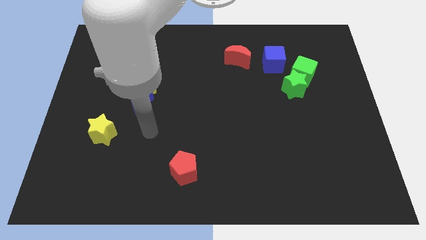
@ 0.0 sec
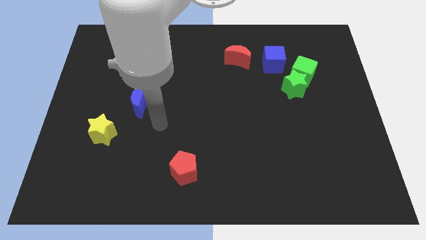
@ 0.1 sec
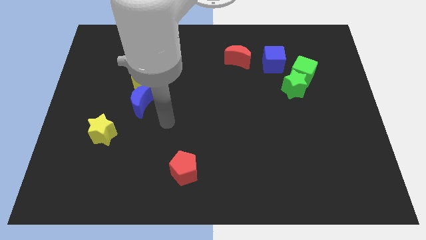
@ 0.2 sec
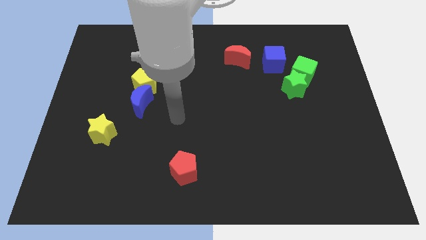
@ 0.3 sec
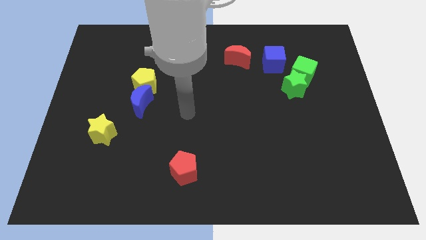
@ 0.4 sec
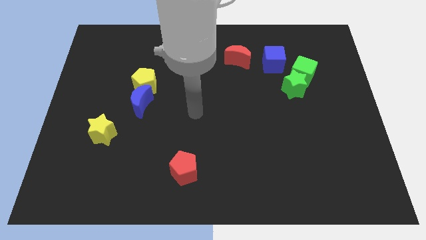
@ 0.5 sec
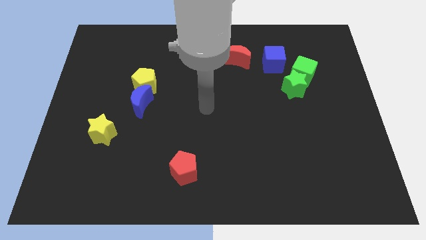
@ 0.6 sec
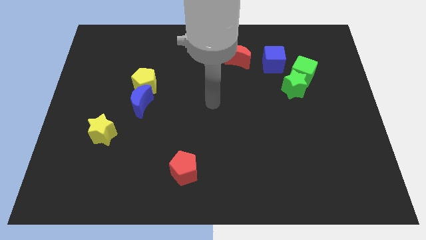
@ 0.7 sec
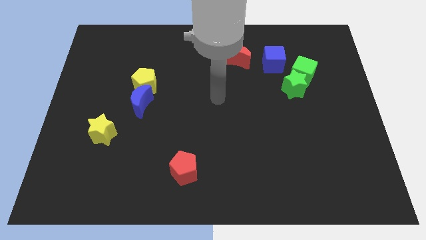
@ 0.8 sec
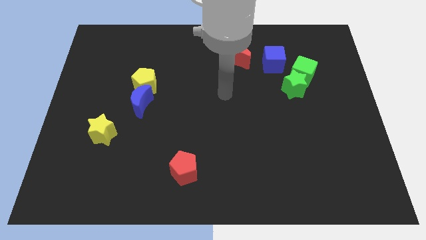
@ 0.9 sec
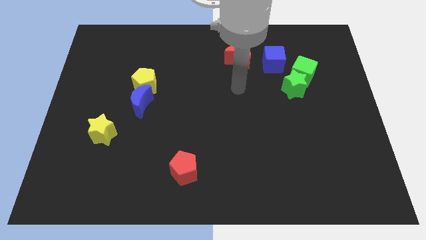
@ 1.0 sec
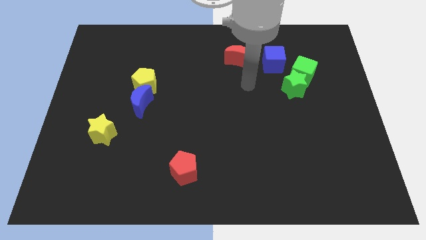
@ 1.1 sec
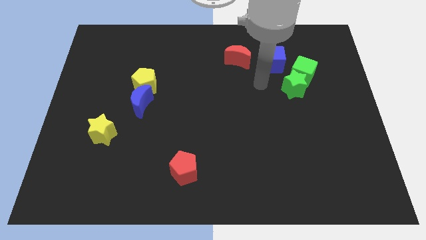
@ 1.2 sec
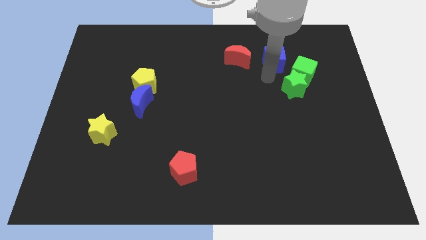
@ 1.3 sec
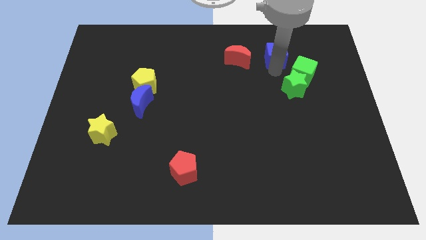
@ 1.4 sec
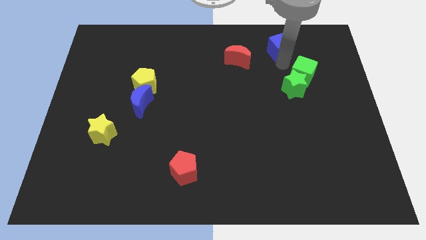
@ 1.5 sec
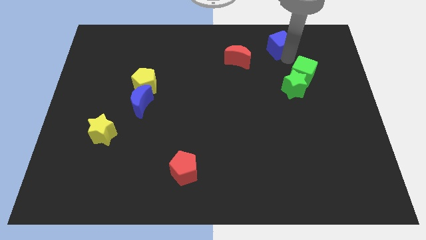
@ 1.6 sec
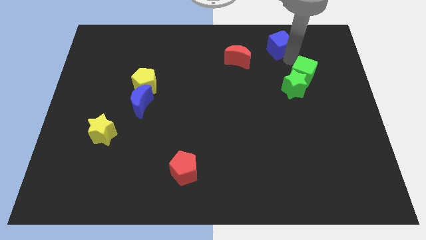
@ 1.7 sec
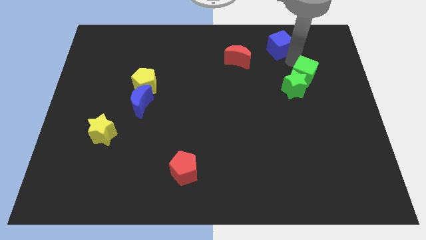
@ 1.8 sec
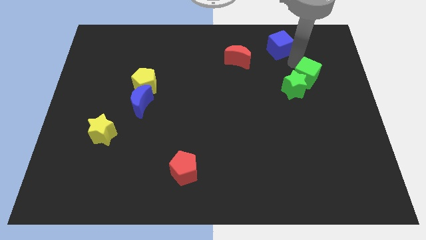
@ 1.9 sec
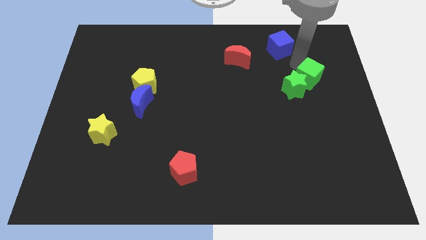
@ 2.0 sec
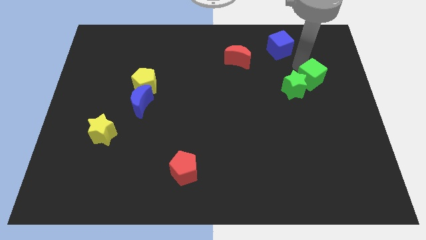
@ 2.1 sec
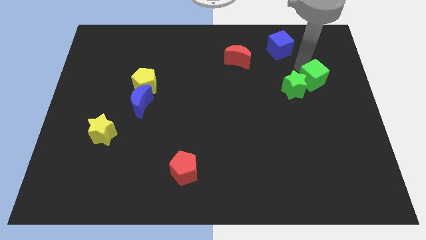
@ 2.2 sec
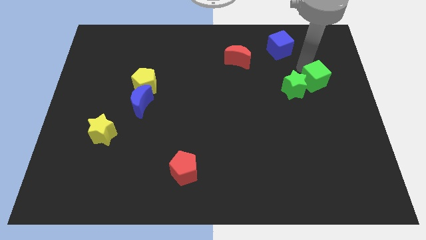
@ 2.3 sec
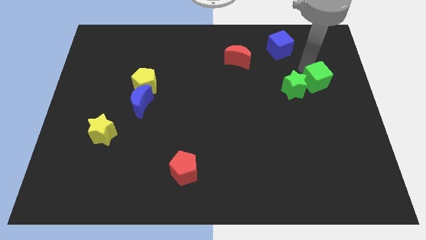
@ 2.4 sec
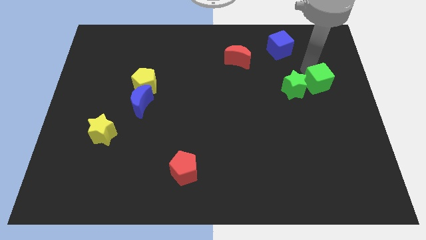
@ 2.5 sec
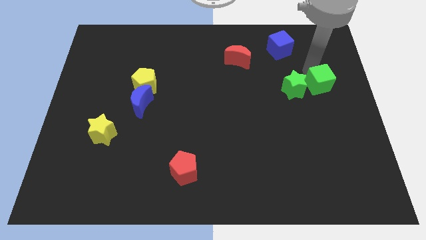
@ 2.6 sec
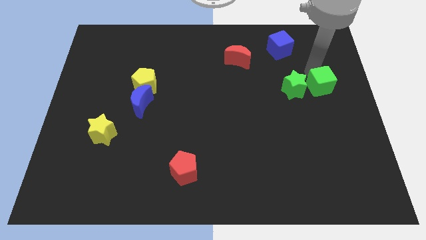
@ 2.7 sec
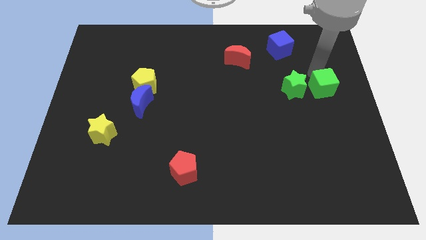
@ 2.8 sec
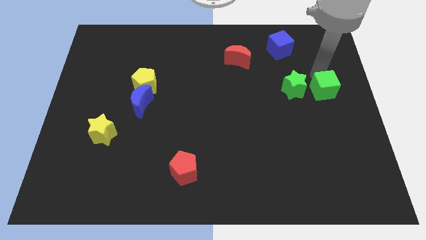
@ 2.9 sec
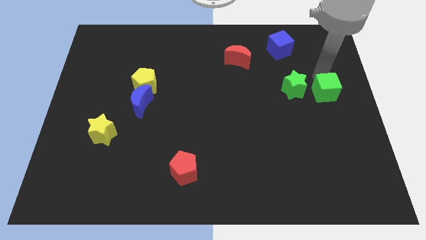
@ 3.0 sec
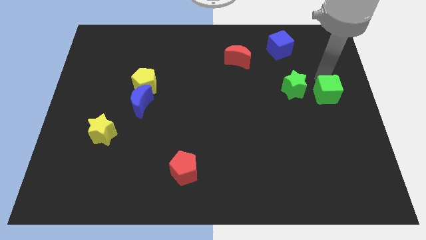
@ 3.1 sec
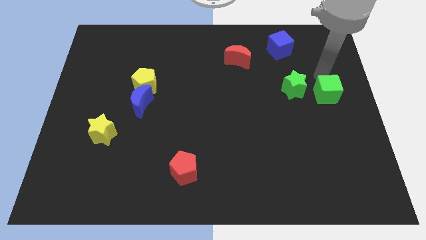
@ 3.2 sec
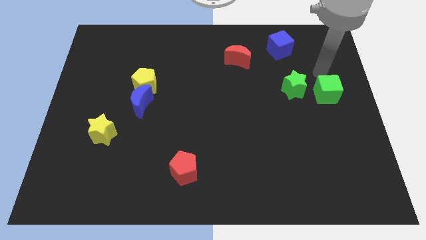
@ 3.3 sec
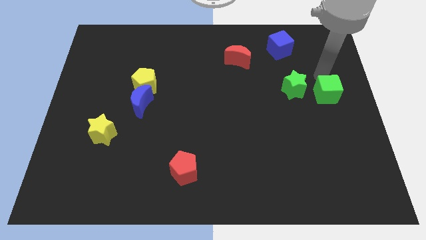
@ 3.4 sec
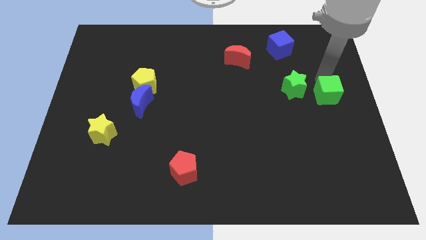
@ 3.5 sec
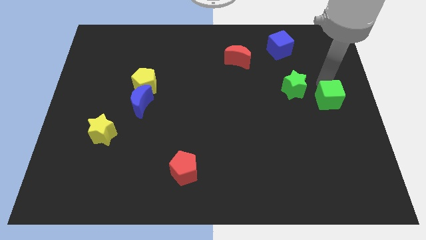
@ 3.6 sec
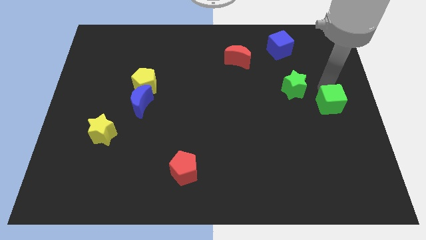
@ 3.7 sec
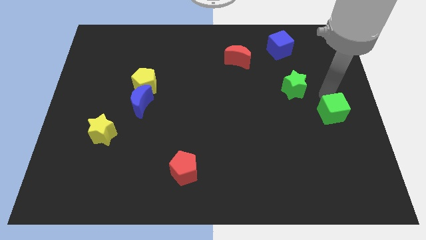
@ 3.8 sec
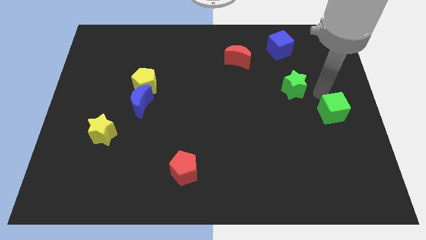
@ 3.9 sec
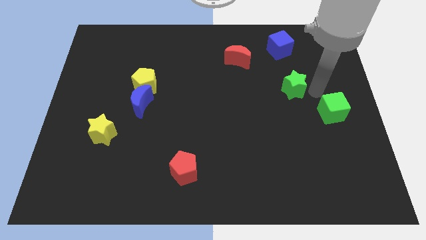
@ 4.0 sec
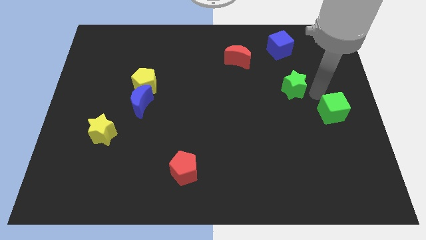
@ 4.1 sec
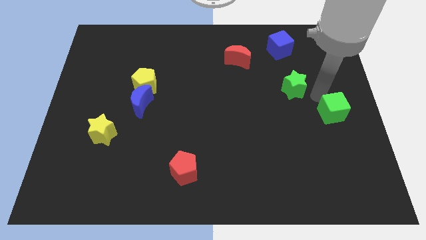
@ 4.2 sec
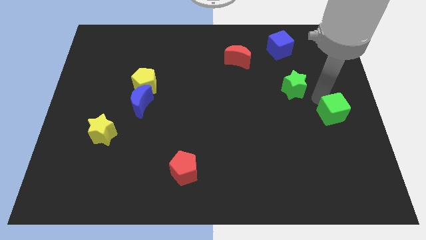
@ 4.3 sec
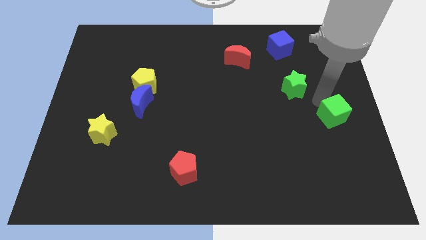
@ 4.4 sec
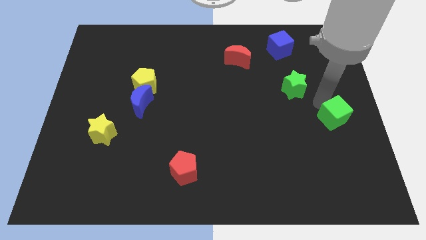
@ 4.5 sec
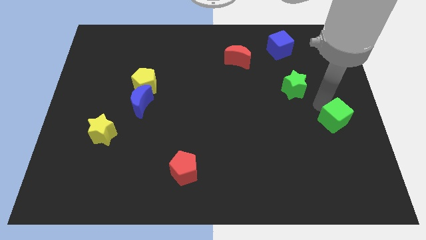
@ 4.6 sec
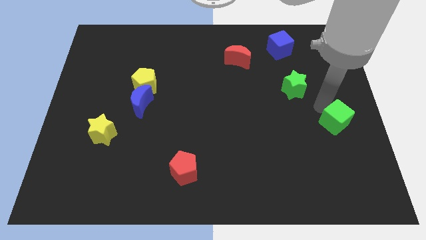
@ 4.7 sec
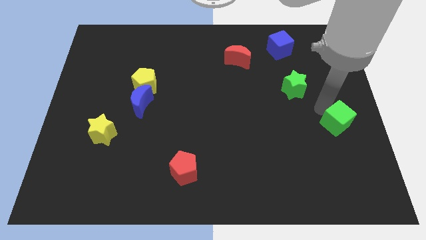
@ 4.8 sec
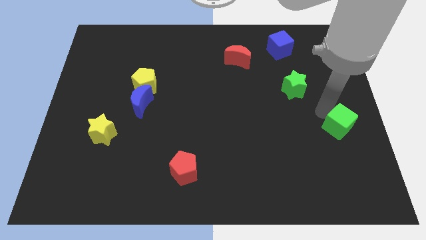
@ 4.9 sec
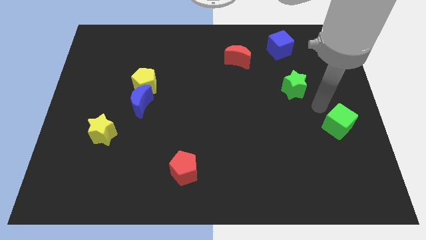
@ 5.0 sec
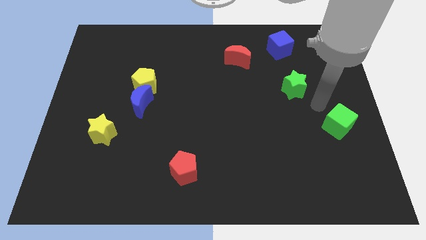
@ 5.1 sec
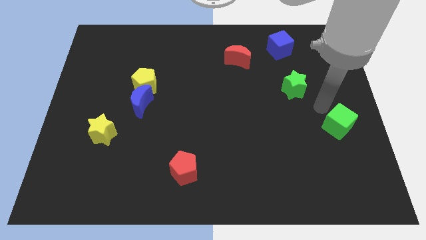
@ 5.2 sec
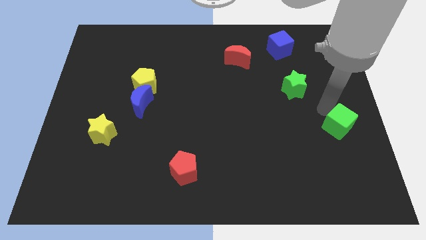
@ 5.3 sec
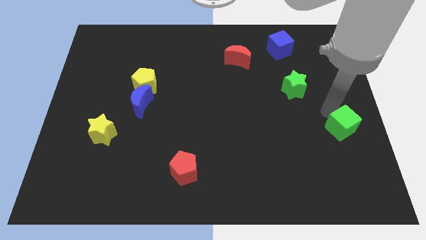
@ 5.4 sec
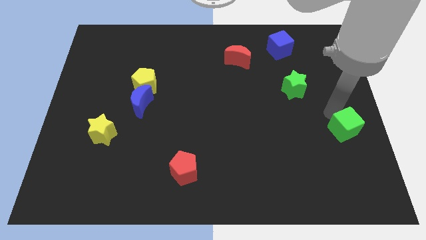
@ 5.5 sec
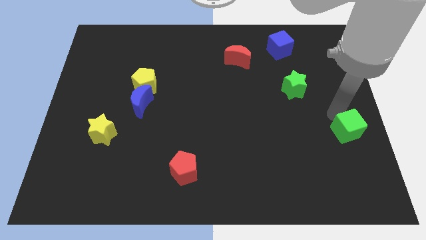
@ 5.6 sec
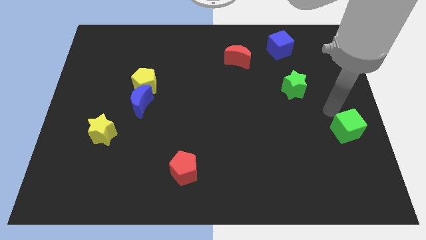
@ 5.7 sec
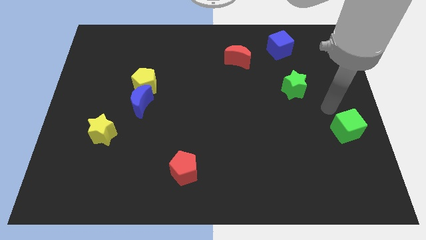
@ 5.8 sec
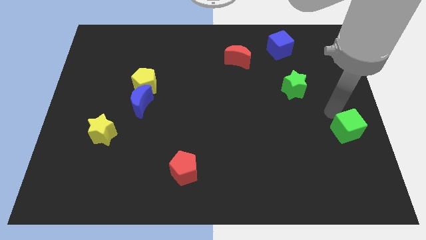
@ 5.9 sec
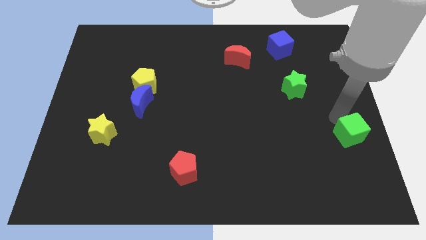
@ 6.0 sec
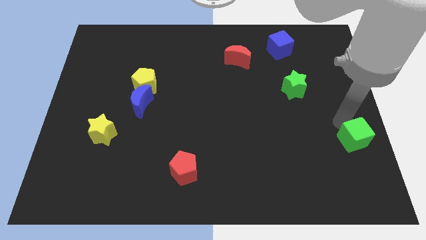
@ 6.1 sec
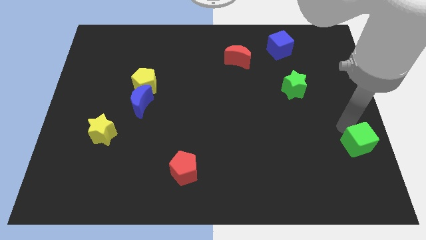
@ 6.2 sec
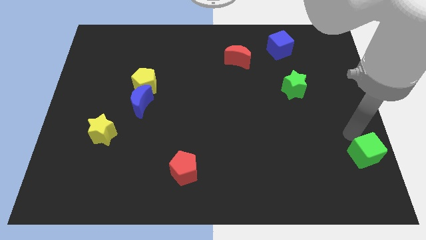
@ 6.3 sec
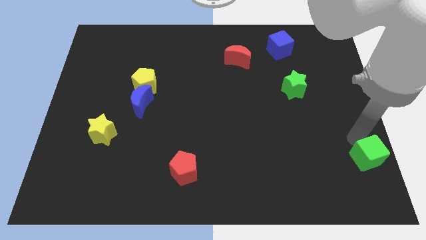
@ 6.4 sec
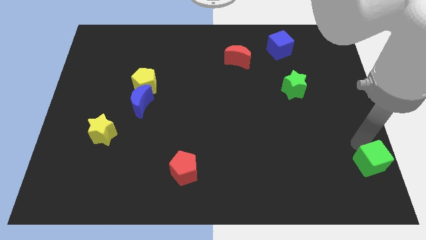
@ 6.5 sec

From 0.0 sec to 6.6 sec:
move the green cube to the lower right corner
